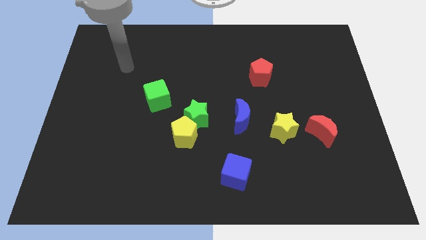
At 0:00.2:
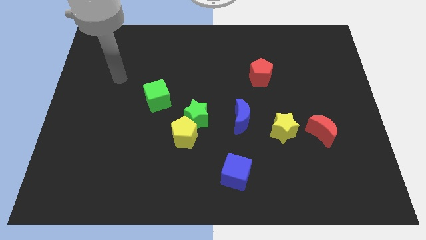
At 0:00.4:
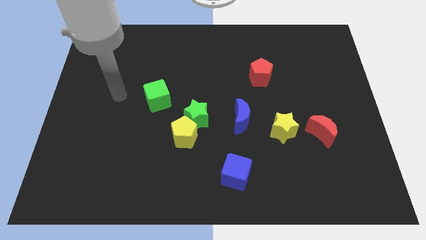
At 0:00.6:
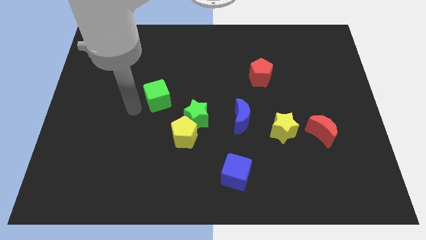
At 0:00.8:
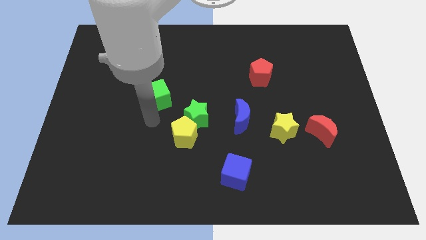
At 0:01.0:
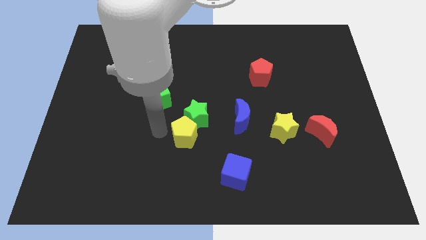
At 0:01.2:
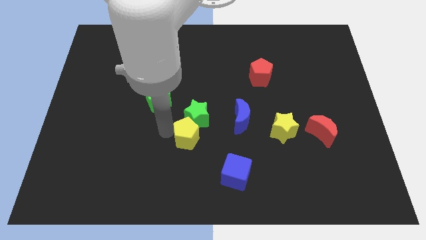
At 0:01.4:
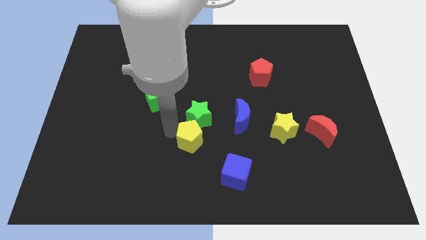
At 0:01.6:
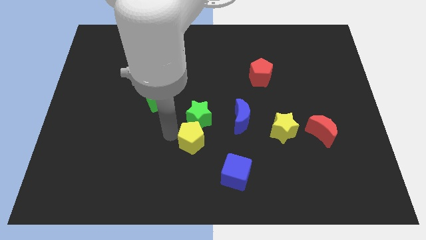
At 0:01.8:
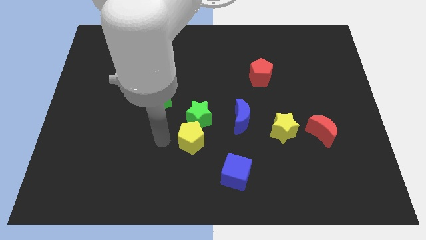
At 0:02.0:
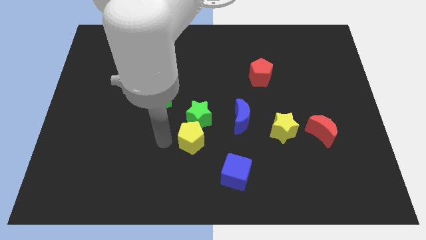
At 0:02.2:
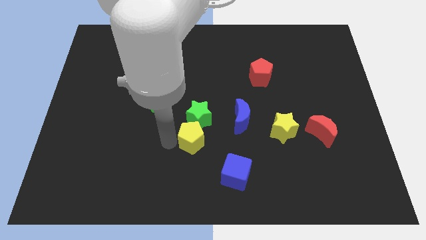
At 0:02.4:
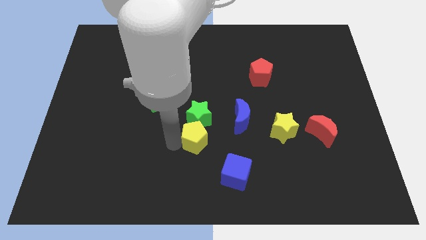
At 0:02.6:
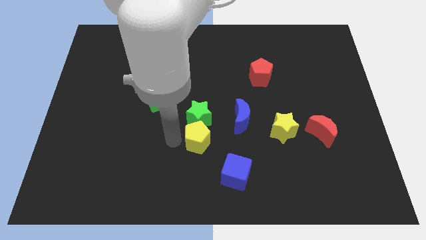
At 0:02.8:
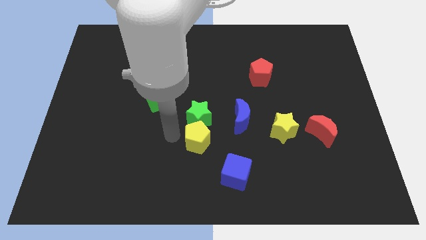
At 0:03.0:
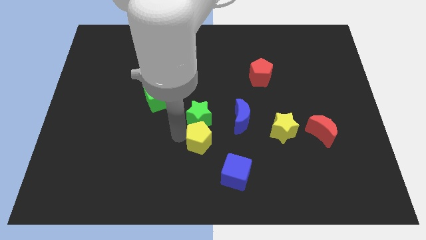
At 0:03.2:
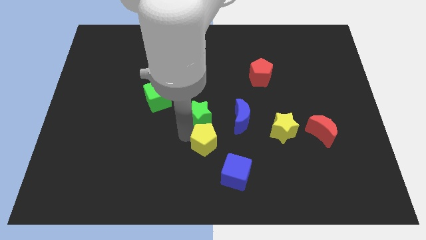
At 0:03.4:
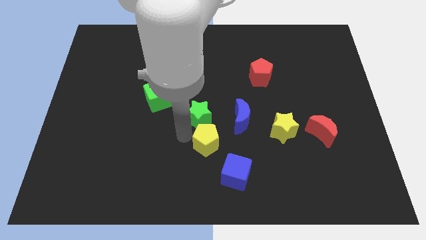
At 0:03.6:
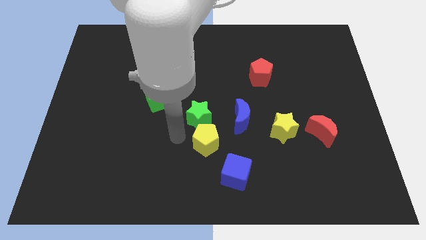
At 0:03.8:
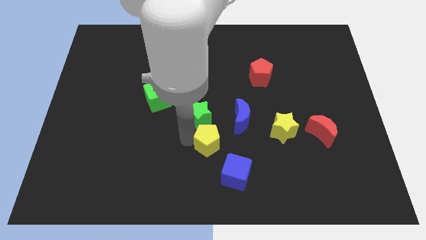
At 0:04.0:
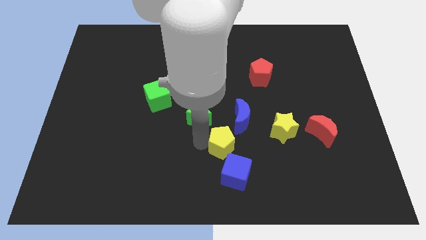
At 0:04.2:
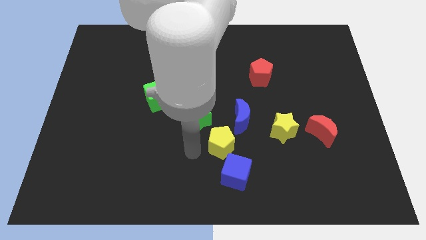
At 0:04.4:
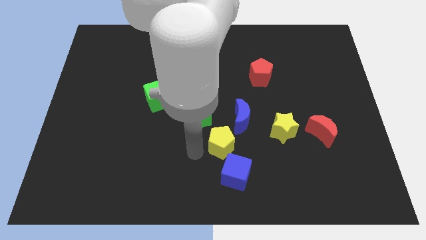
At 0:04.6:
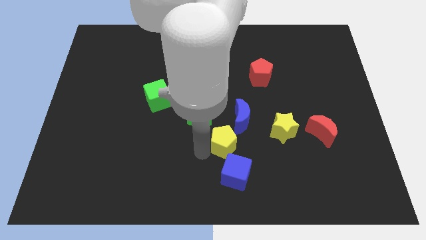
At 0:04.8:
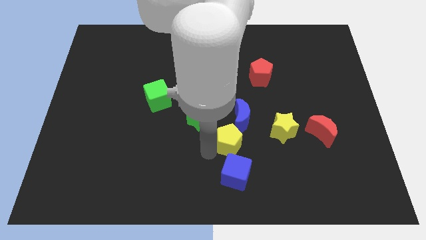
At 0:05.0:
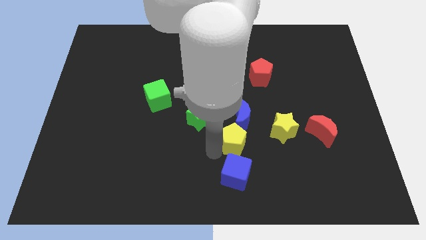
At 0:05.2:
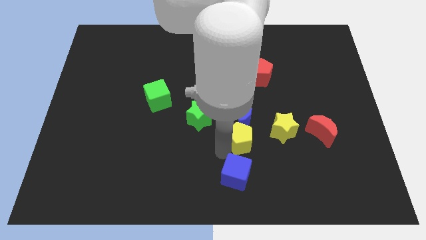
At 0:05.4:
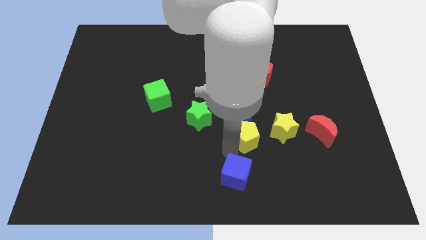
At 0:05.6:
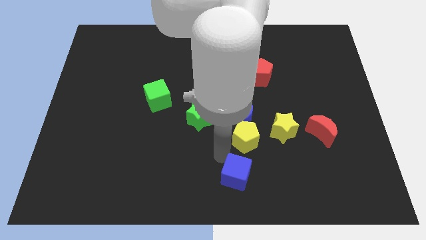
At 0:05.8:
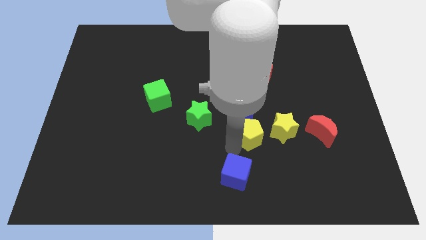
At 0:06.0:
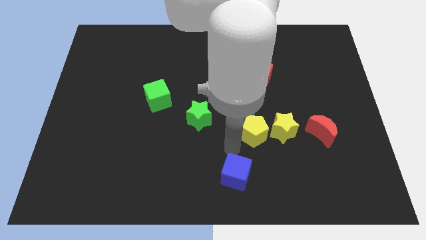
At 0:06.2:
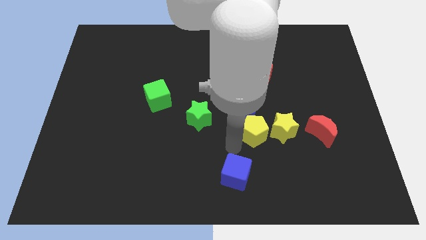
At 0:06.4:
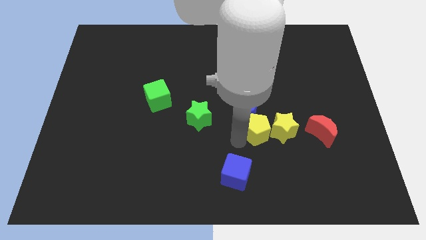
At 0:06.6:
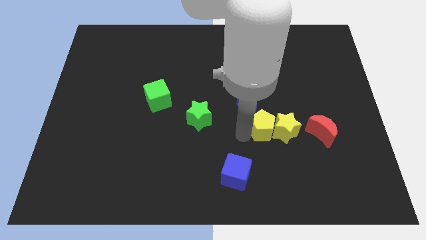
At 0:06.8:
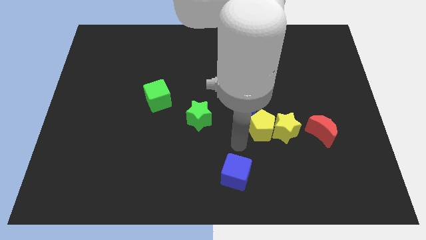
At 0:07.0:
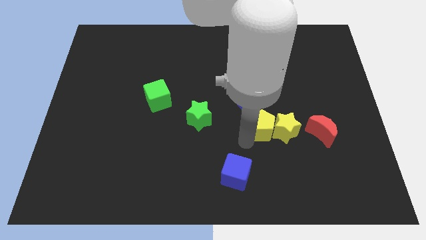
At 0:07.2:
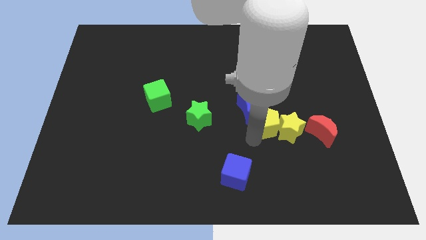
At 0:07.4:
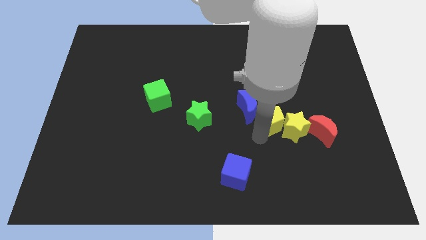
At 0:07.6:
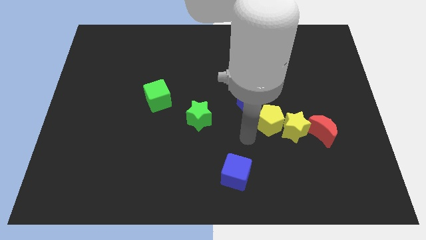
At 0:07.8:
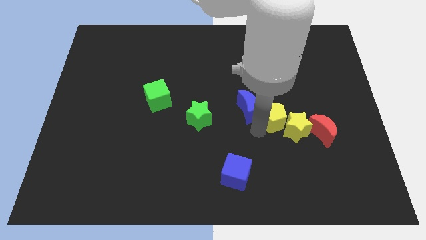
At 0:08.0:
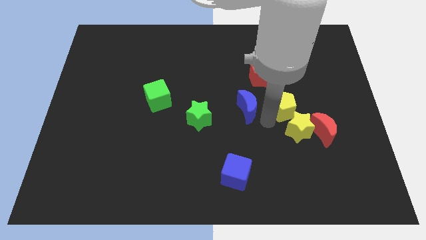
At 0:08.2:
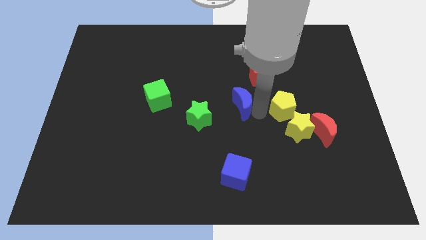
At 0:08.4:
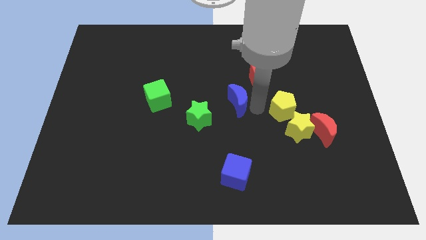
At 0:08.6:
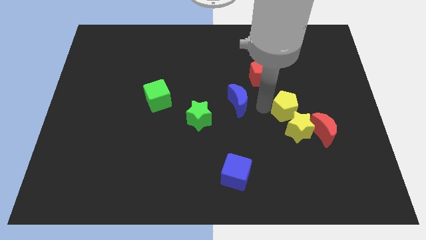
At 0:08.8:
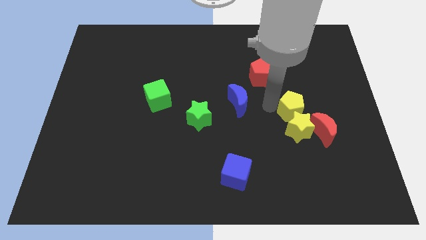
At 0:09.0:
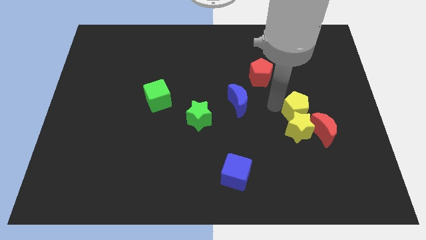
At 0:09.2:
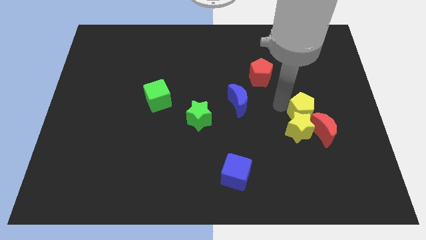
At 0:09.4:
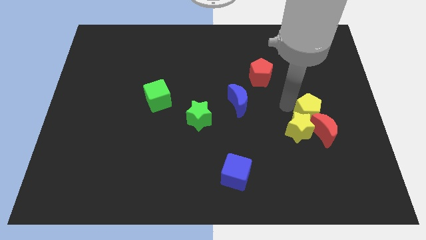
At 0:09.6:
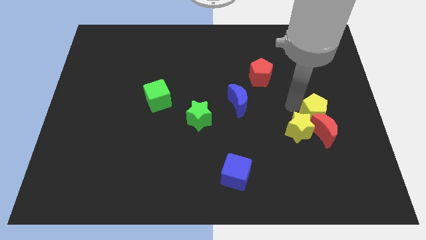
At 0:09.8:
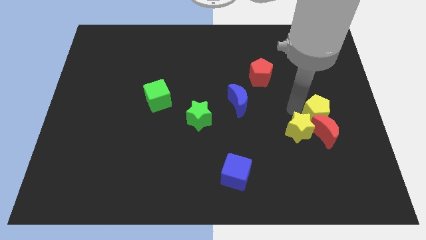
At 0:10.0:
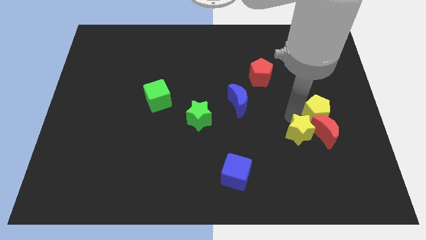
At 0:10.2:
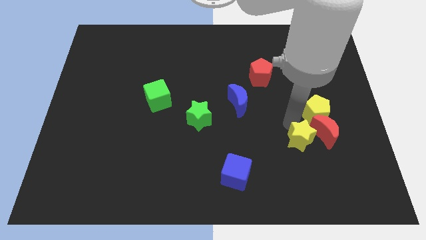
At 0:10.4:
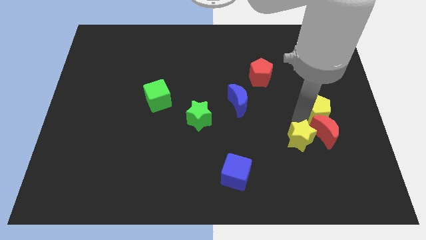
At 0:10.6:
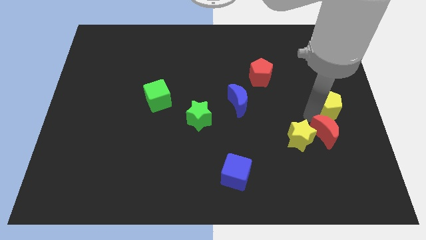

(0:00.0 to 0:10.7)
put the yellow pentagon to the center right

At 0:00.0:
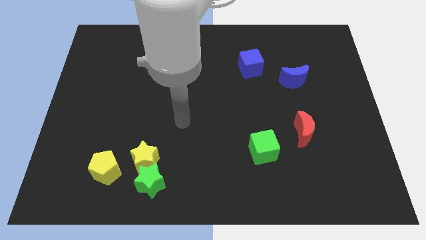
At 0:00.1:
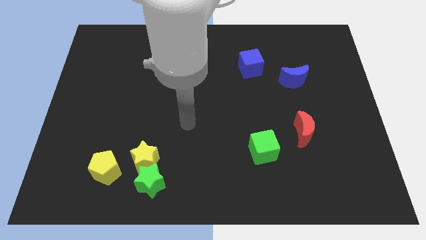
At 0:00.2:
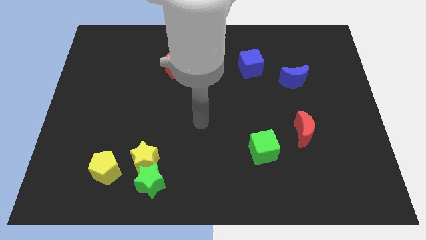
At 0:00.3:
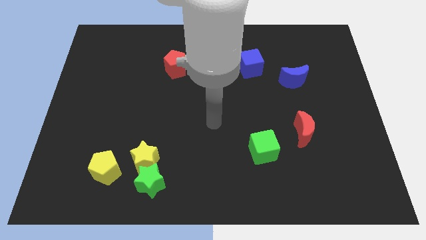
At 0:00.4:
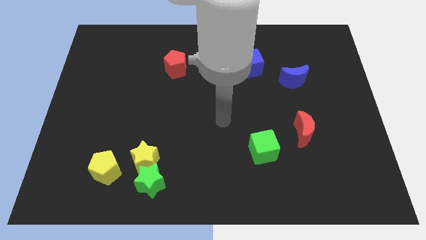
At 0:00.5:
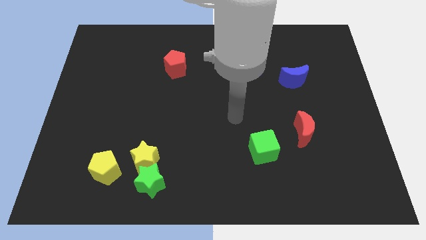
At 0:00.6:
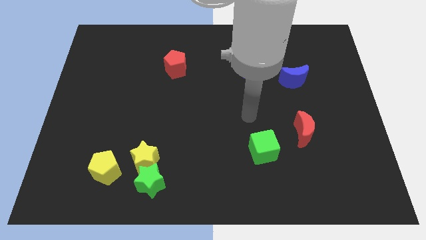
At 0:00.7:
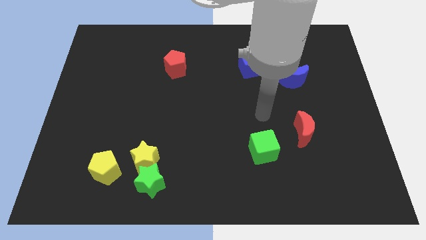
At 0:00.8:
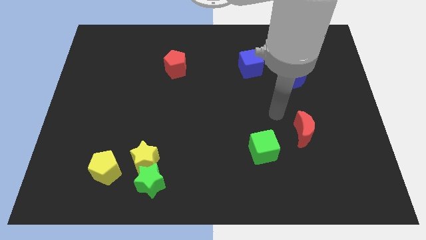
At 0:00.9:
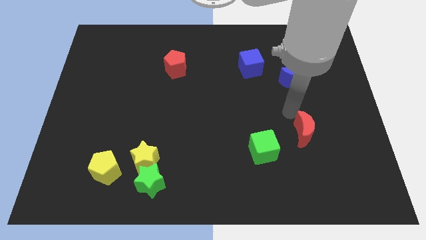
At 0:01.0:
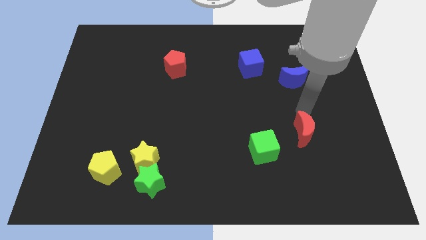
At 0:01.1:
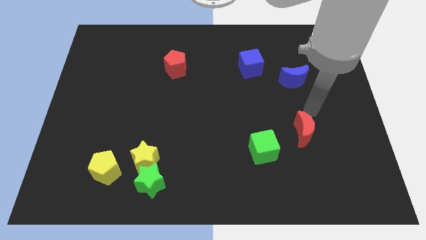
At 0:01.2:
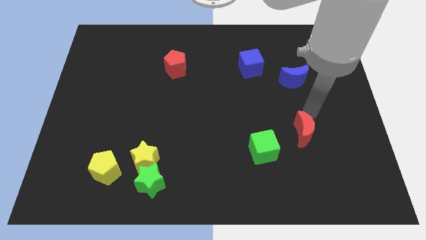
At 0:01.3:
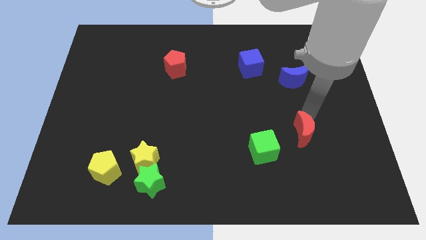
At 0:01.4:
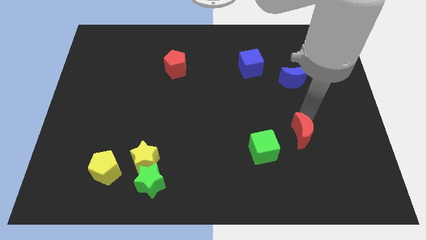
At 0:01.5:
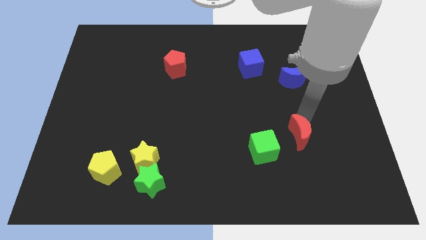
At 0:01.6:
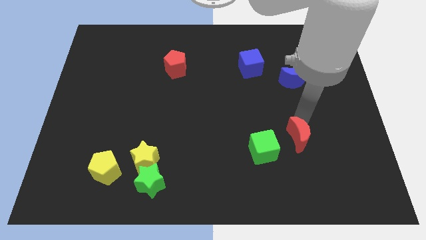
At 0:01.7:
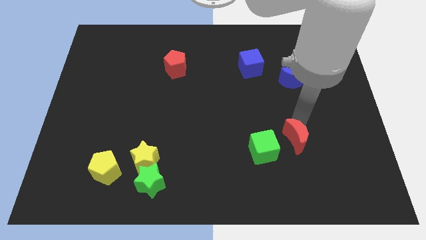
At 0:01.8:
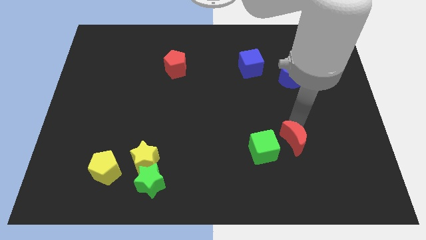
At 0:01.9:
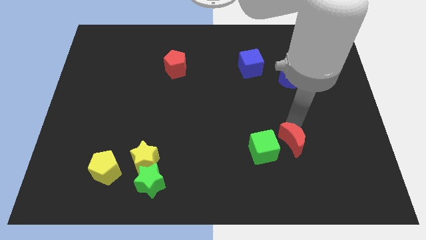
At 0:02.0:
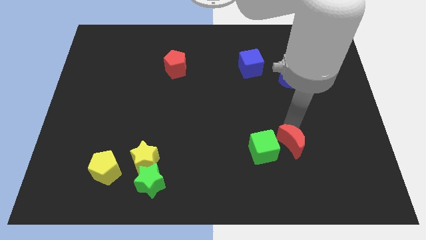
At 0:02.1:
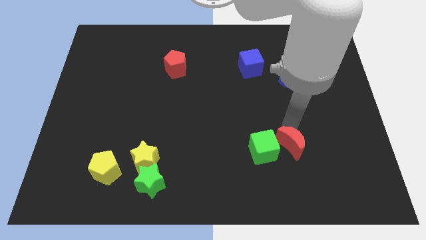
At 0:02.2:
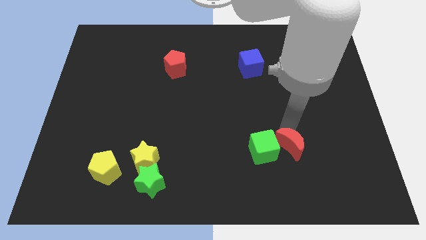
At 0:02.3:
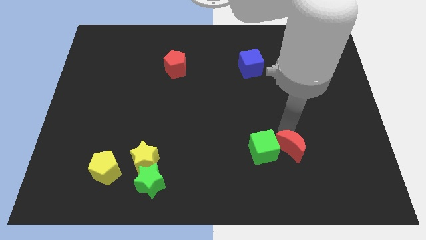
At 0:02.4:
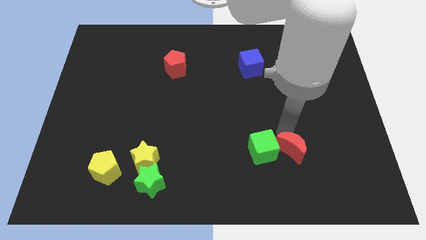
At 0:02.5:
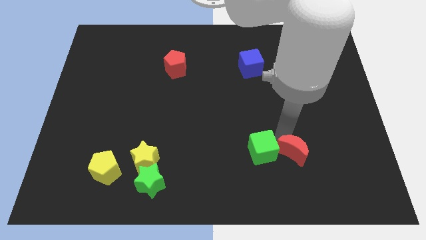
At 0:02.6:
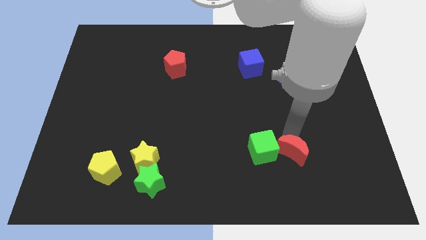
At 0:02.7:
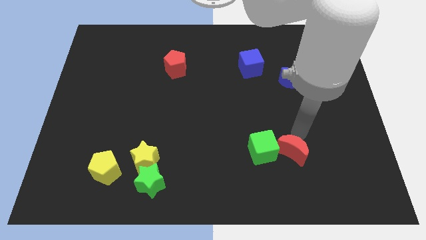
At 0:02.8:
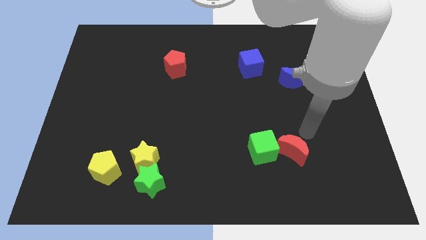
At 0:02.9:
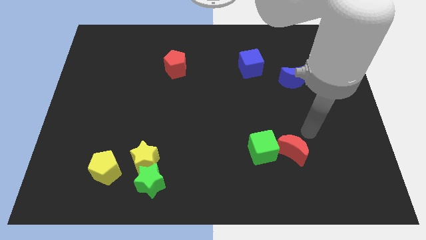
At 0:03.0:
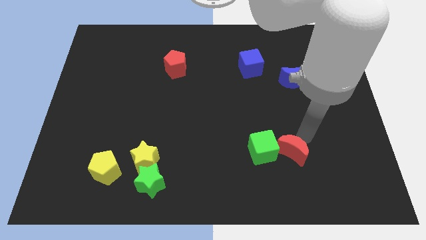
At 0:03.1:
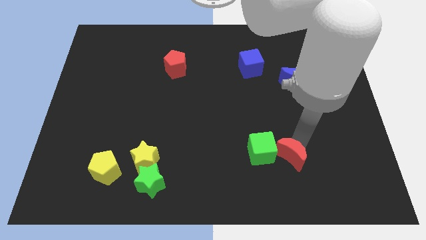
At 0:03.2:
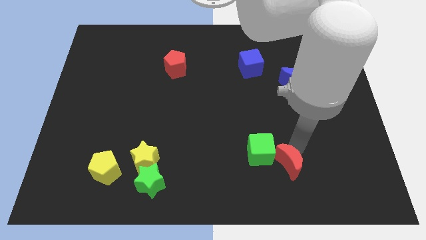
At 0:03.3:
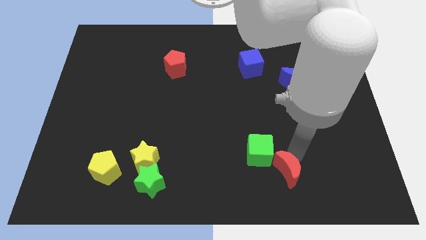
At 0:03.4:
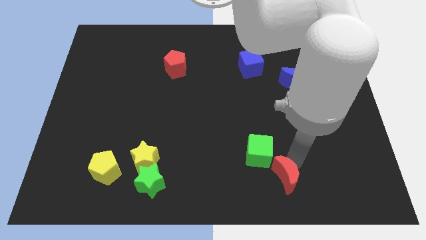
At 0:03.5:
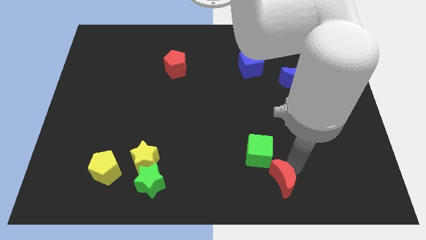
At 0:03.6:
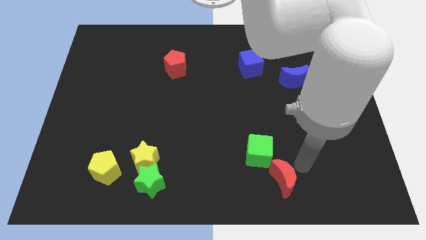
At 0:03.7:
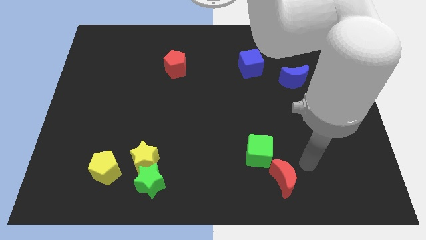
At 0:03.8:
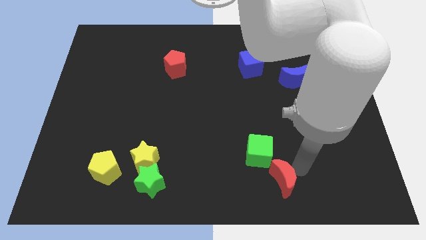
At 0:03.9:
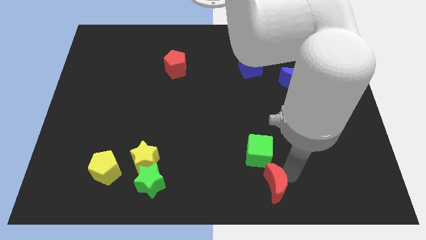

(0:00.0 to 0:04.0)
put the red moon to the bottom side
